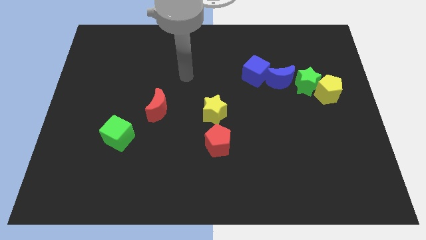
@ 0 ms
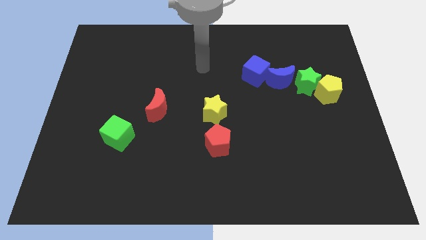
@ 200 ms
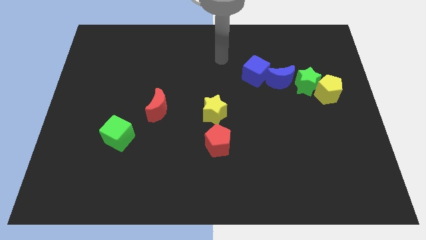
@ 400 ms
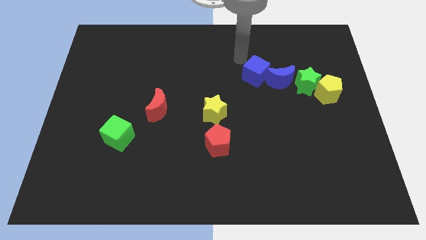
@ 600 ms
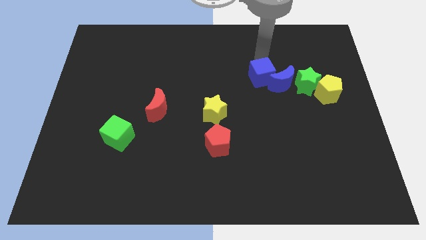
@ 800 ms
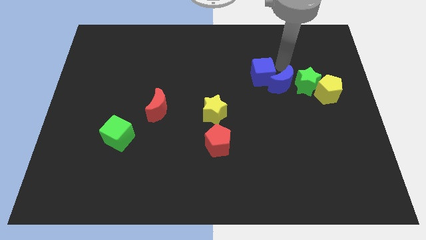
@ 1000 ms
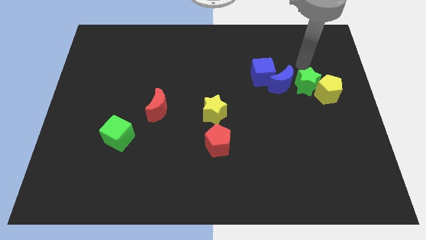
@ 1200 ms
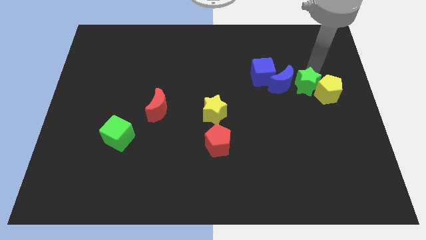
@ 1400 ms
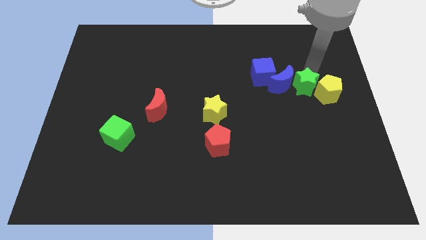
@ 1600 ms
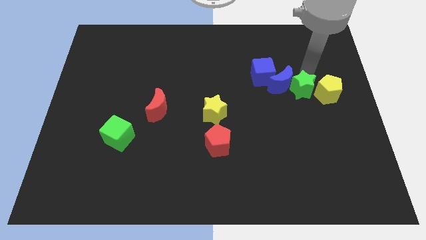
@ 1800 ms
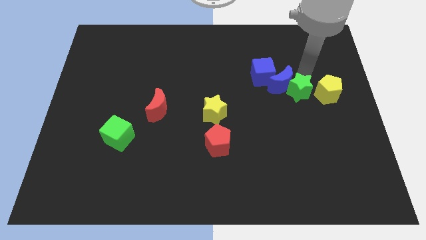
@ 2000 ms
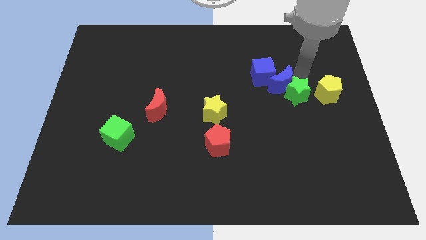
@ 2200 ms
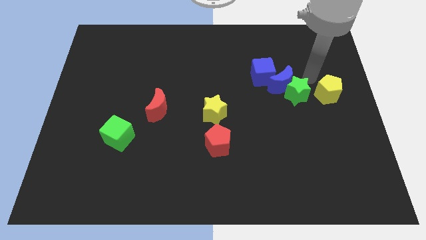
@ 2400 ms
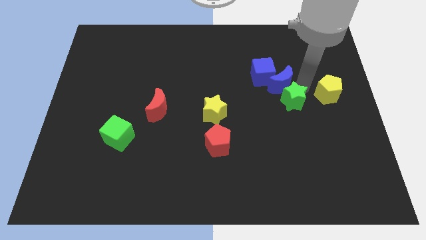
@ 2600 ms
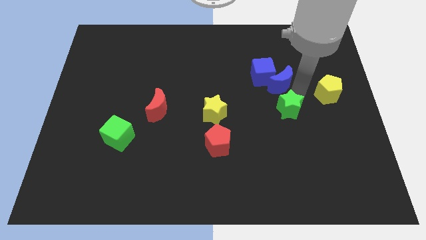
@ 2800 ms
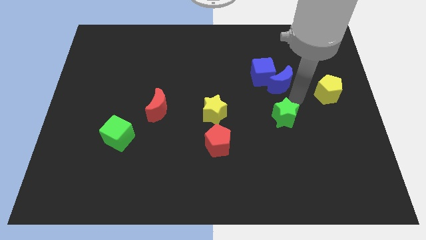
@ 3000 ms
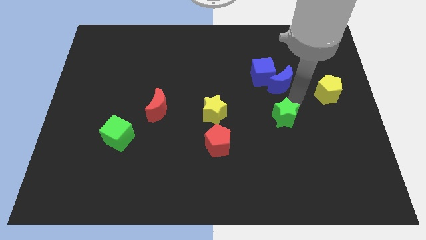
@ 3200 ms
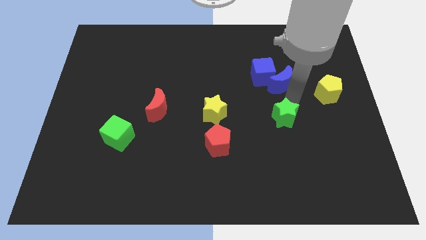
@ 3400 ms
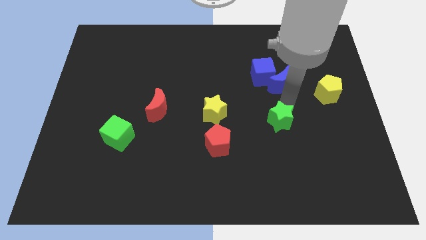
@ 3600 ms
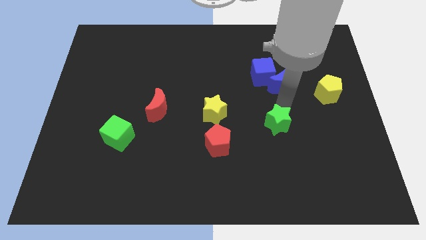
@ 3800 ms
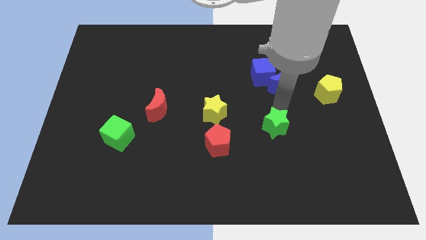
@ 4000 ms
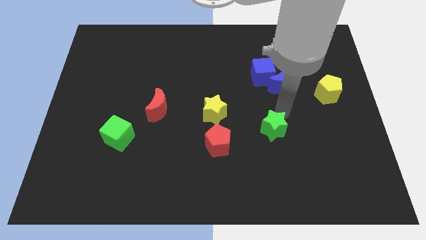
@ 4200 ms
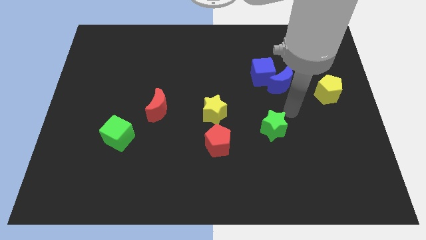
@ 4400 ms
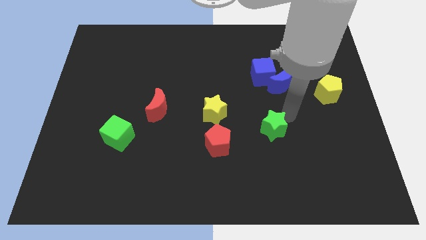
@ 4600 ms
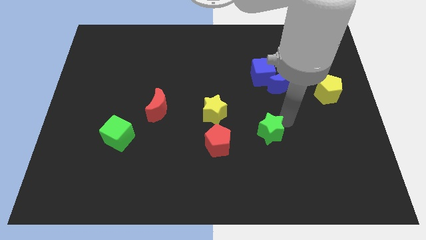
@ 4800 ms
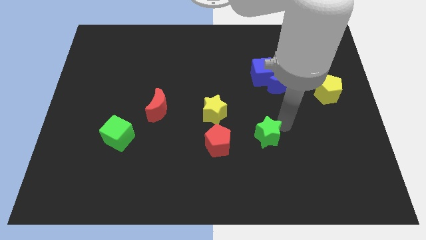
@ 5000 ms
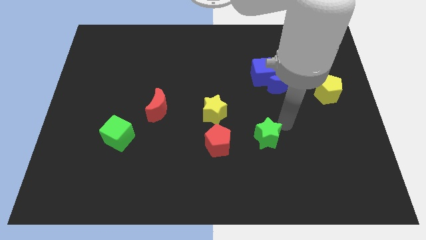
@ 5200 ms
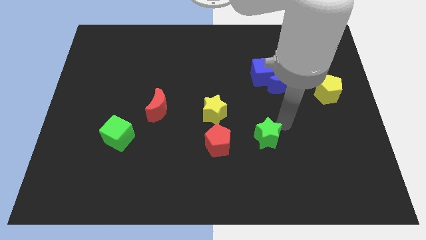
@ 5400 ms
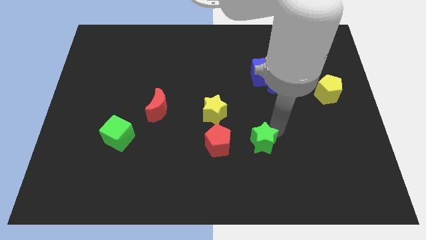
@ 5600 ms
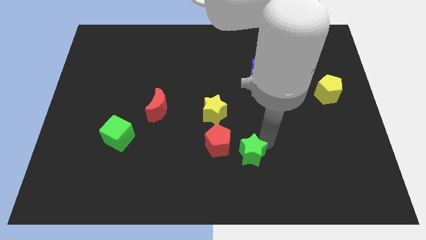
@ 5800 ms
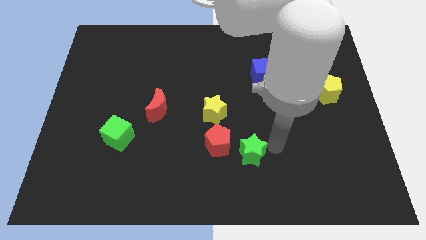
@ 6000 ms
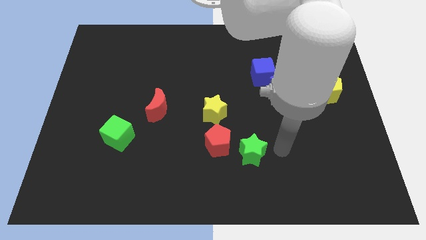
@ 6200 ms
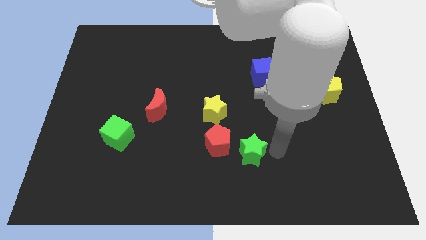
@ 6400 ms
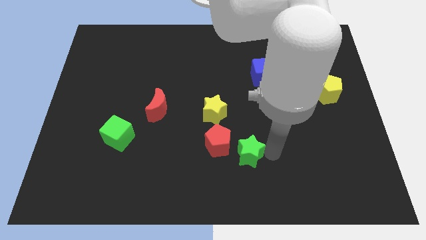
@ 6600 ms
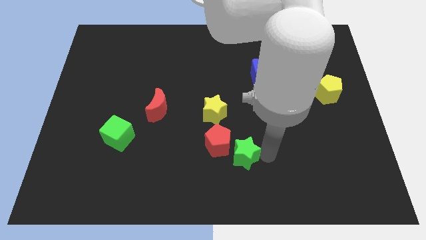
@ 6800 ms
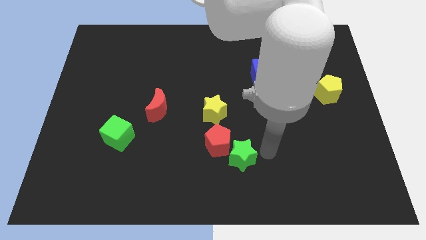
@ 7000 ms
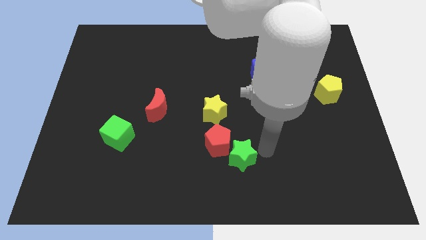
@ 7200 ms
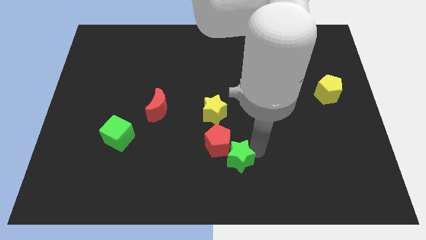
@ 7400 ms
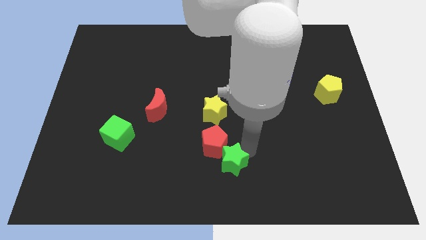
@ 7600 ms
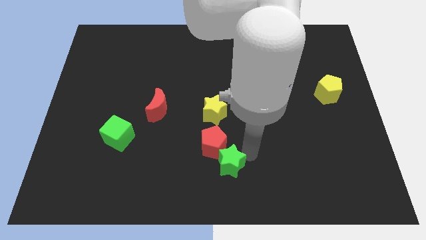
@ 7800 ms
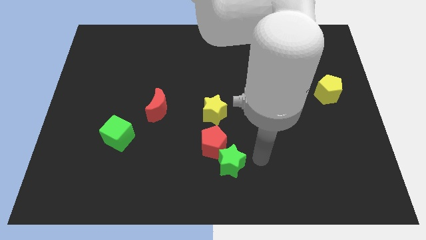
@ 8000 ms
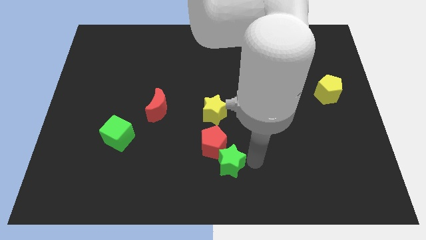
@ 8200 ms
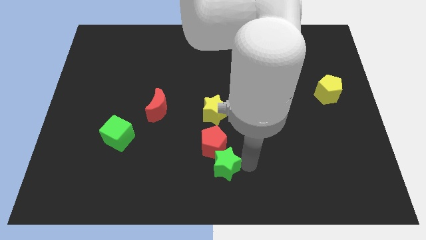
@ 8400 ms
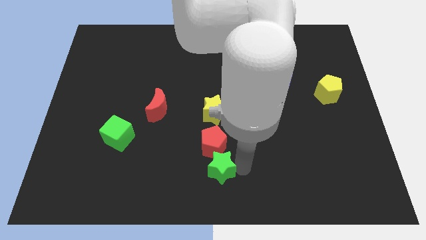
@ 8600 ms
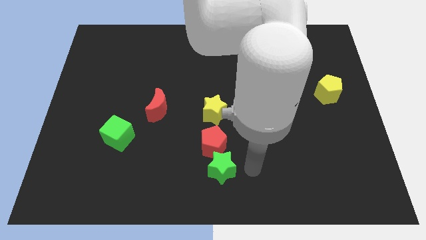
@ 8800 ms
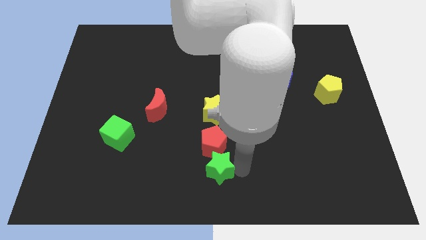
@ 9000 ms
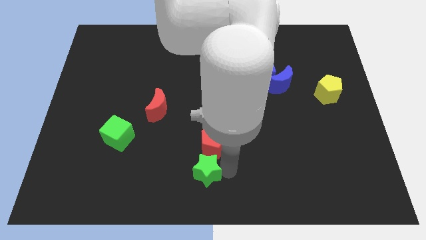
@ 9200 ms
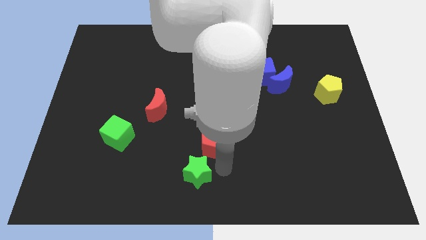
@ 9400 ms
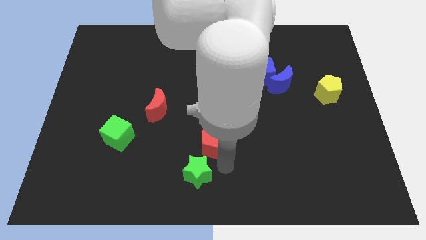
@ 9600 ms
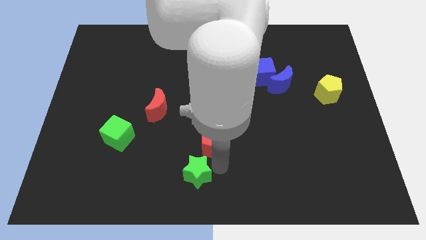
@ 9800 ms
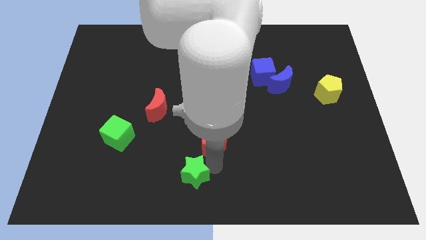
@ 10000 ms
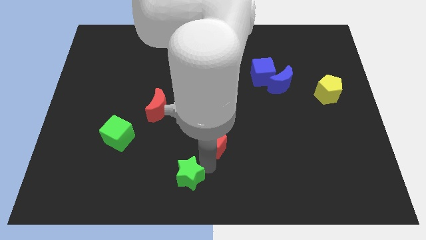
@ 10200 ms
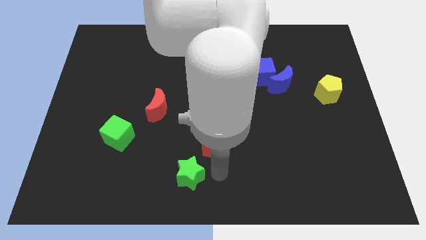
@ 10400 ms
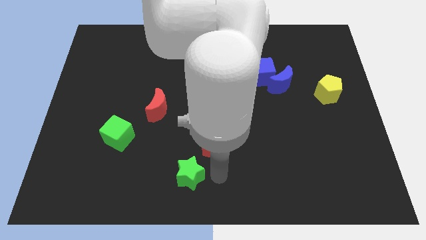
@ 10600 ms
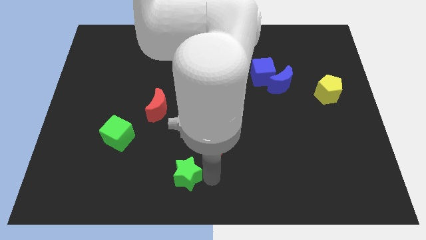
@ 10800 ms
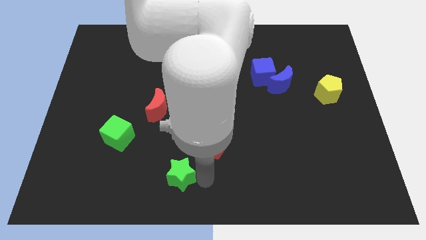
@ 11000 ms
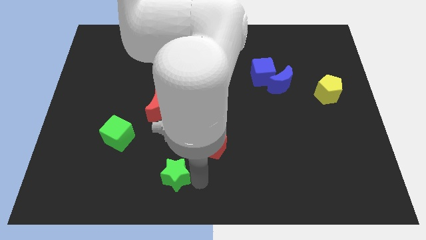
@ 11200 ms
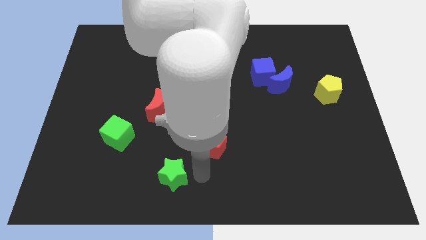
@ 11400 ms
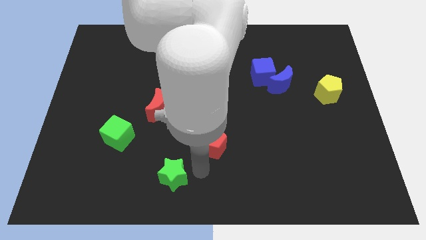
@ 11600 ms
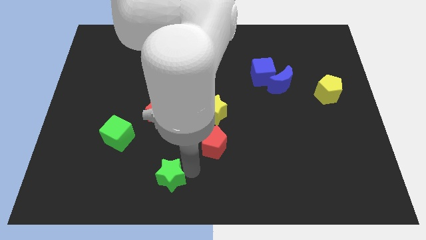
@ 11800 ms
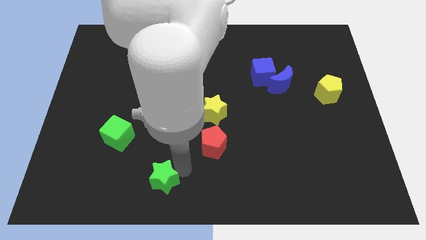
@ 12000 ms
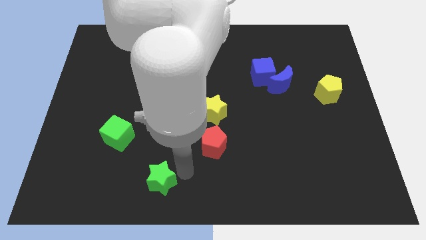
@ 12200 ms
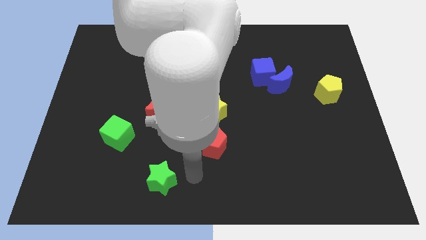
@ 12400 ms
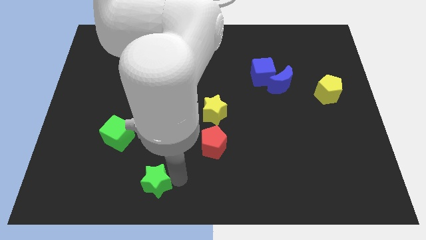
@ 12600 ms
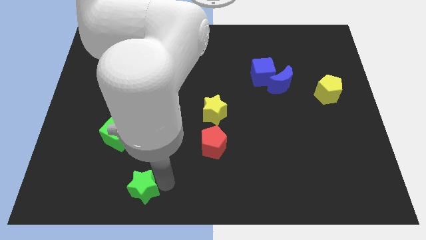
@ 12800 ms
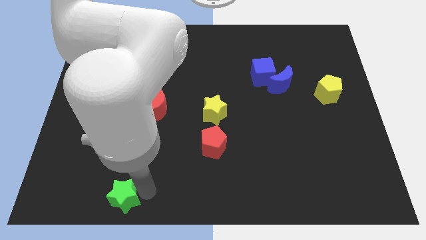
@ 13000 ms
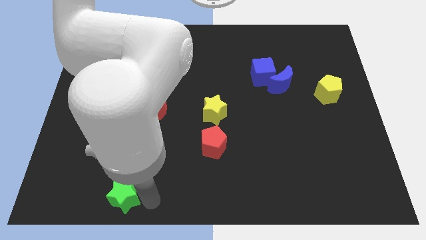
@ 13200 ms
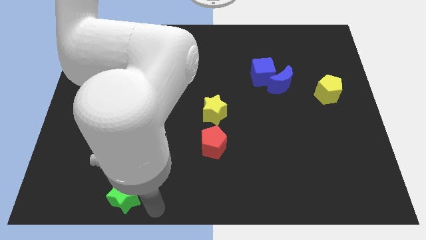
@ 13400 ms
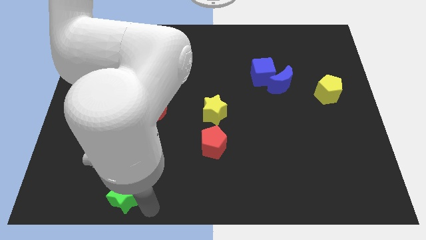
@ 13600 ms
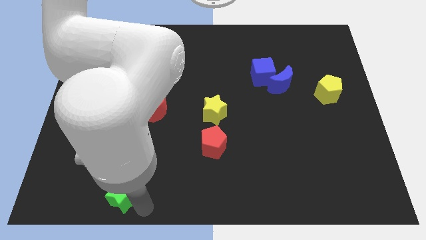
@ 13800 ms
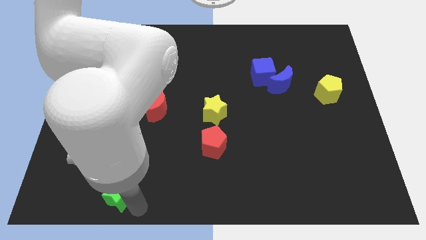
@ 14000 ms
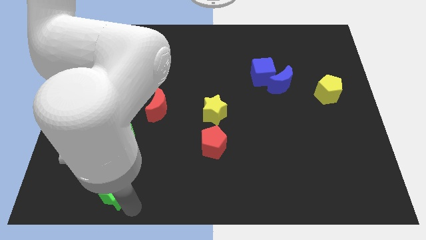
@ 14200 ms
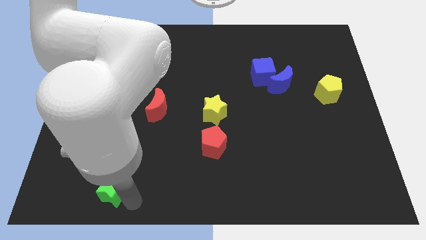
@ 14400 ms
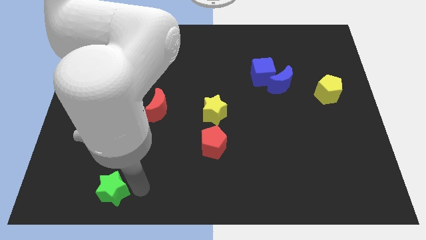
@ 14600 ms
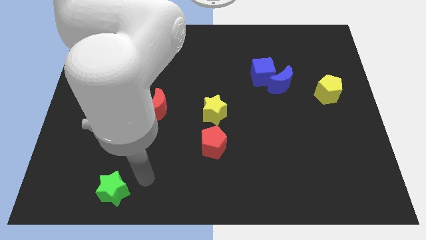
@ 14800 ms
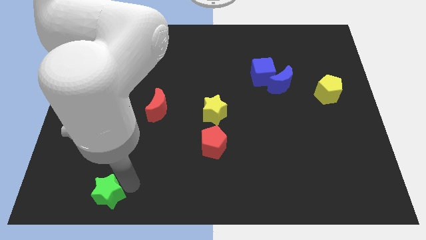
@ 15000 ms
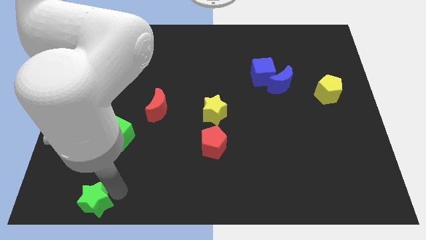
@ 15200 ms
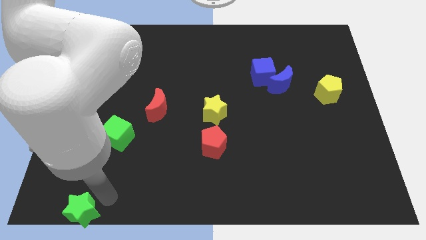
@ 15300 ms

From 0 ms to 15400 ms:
move the green star to the bottom left corner
